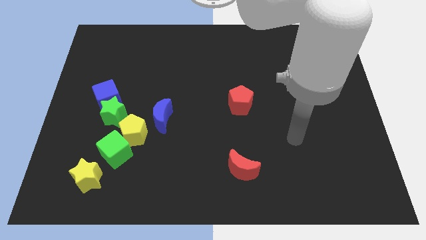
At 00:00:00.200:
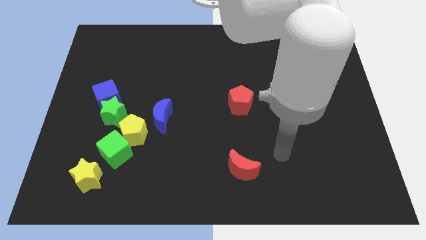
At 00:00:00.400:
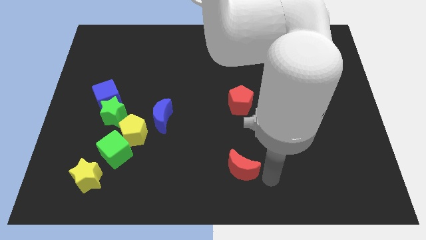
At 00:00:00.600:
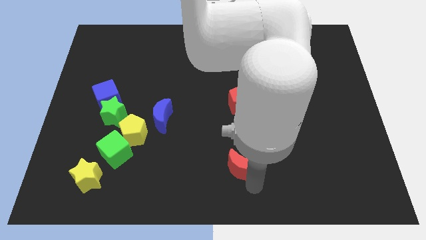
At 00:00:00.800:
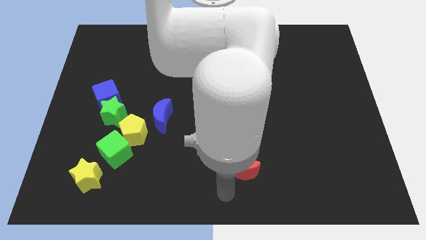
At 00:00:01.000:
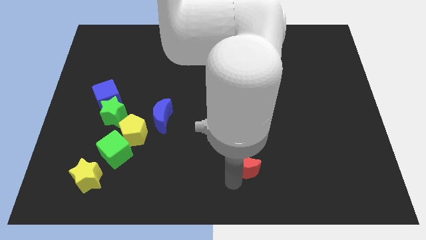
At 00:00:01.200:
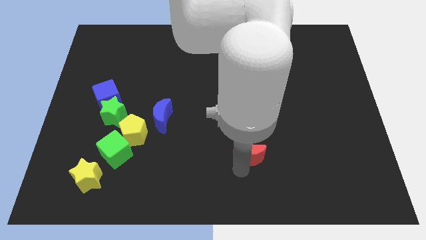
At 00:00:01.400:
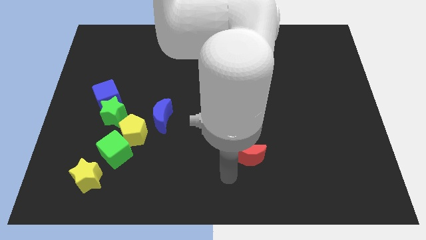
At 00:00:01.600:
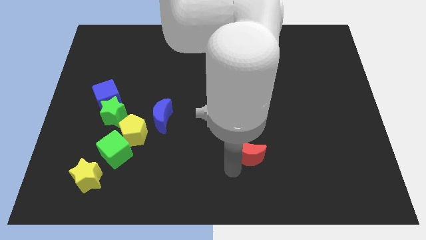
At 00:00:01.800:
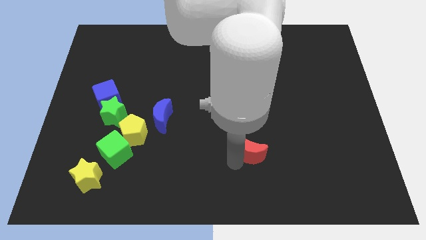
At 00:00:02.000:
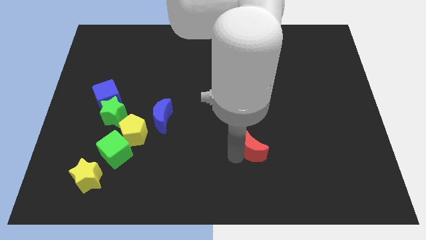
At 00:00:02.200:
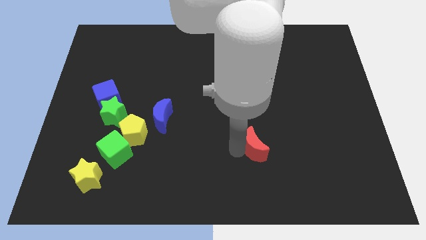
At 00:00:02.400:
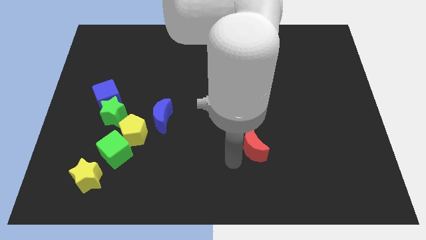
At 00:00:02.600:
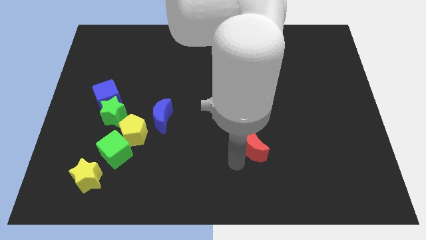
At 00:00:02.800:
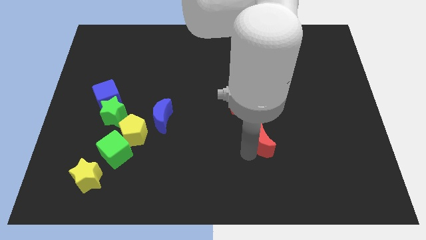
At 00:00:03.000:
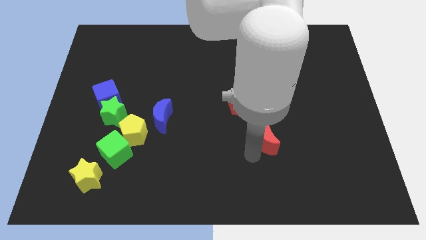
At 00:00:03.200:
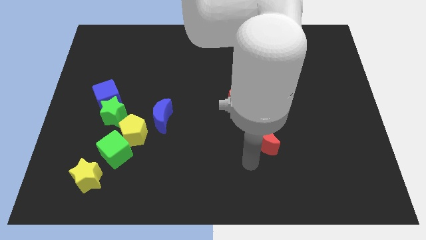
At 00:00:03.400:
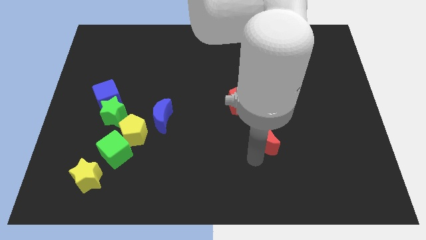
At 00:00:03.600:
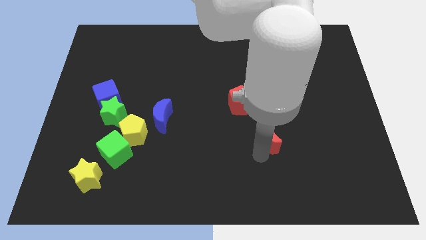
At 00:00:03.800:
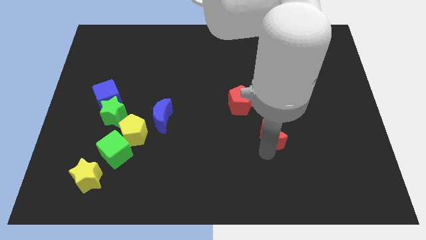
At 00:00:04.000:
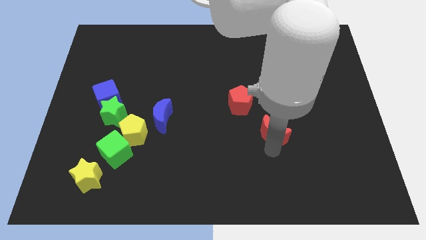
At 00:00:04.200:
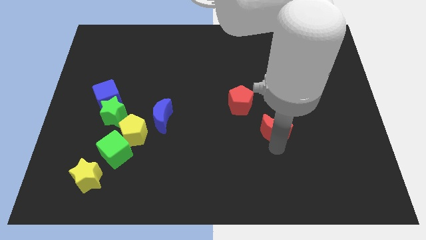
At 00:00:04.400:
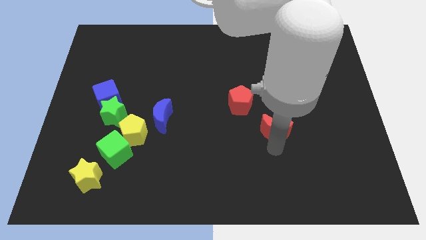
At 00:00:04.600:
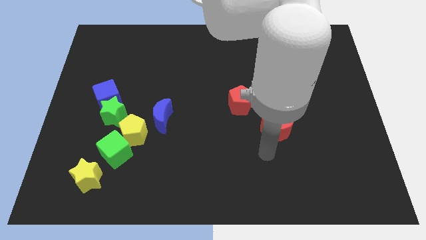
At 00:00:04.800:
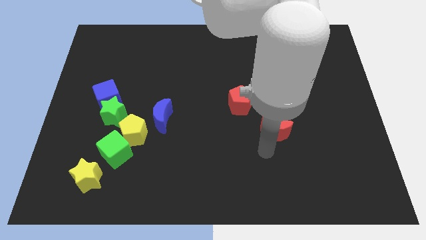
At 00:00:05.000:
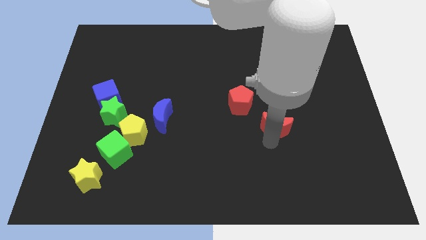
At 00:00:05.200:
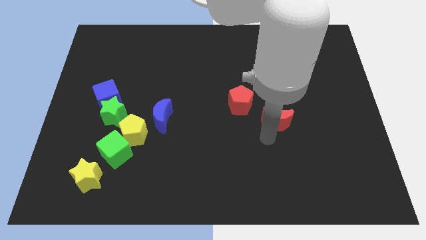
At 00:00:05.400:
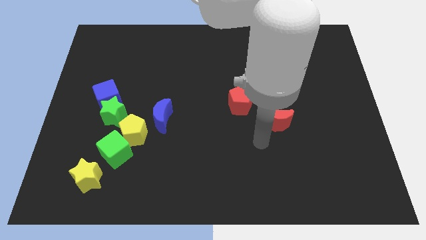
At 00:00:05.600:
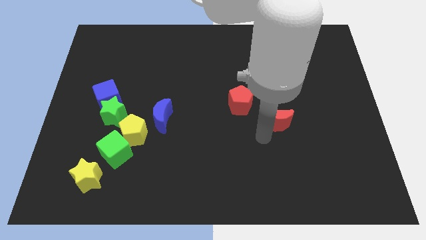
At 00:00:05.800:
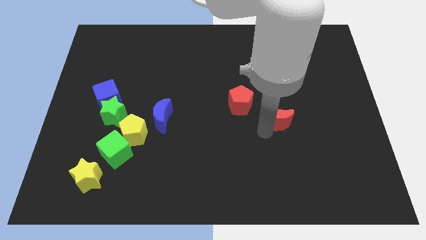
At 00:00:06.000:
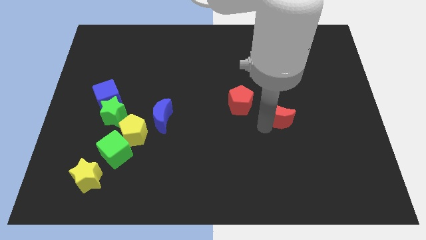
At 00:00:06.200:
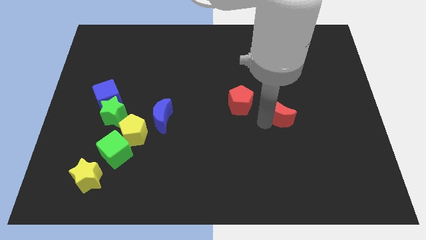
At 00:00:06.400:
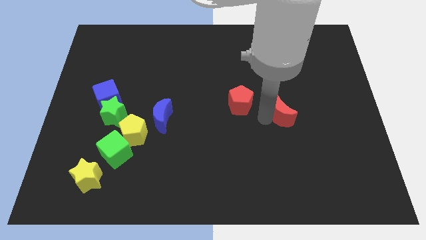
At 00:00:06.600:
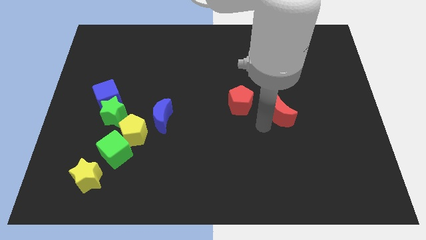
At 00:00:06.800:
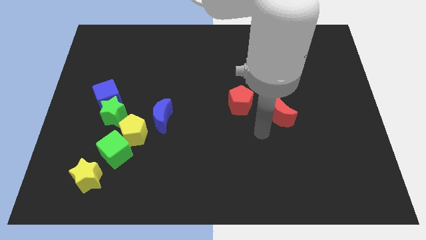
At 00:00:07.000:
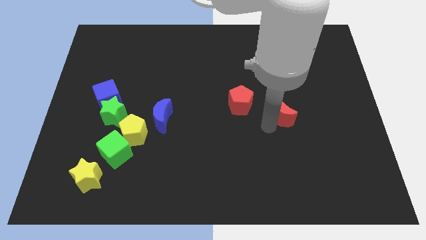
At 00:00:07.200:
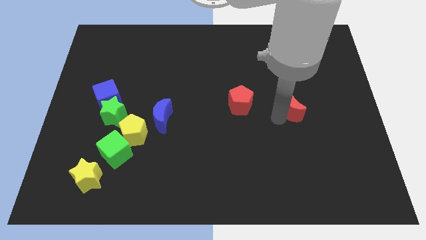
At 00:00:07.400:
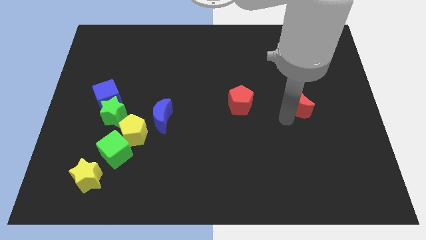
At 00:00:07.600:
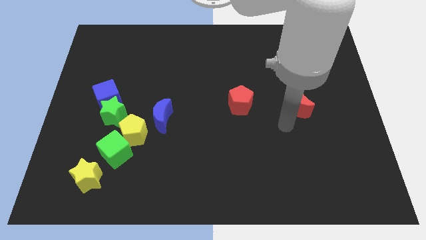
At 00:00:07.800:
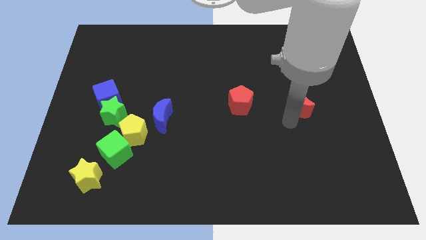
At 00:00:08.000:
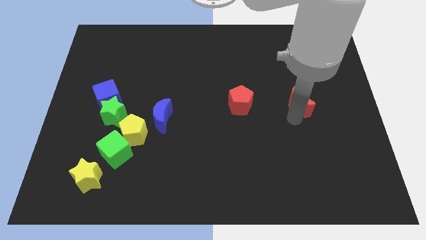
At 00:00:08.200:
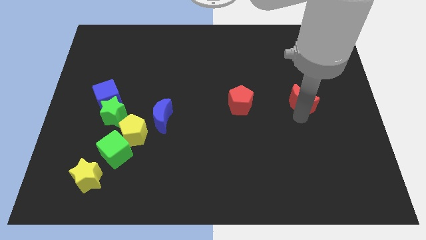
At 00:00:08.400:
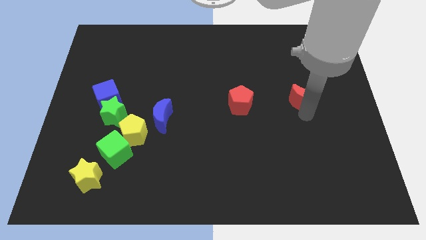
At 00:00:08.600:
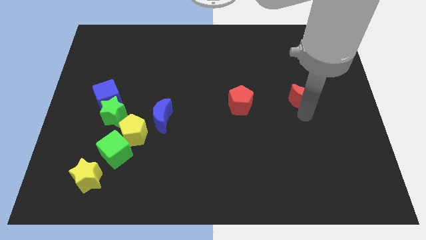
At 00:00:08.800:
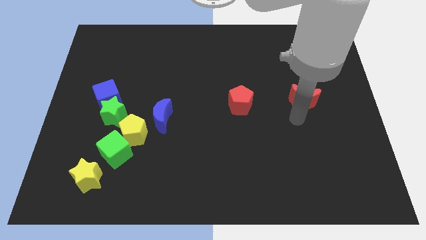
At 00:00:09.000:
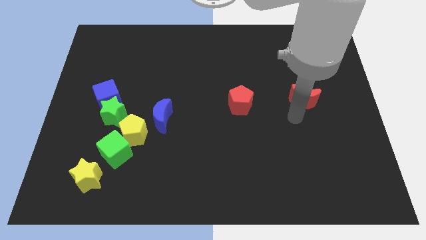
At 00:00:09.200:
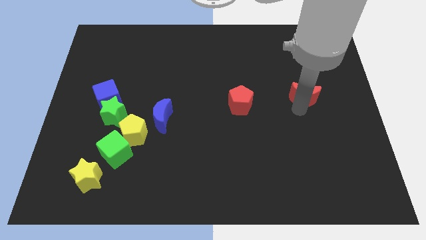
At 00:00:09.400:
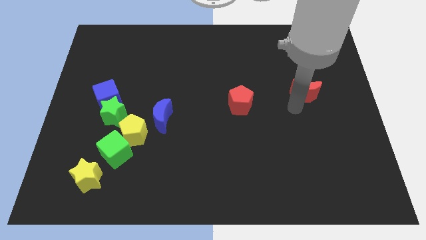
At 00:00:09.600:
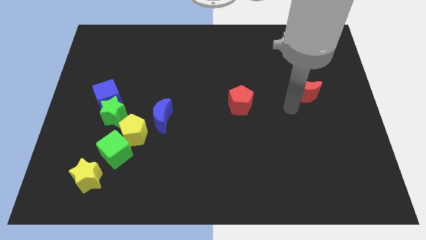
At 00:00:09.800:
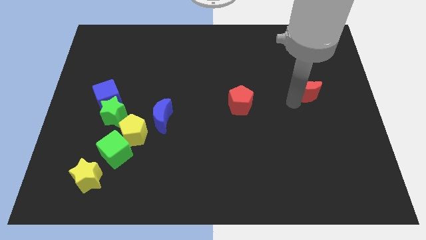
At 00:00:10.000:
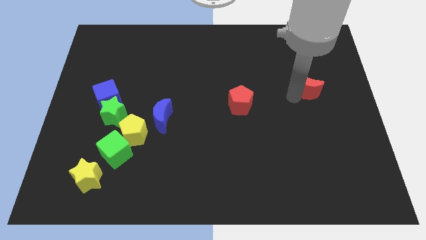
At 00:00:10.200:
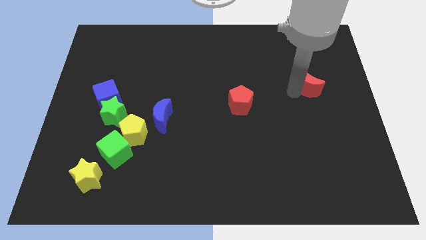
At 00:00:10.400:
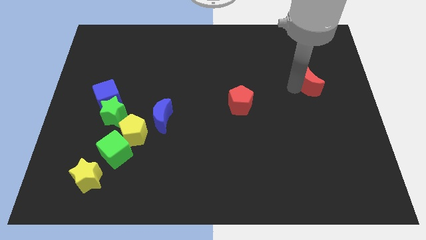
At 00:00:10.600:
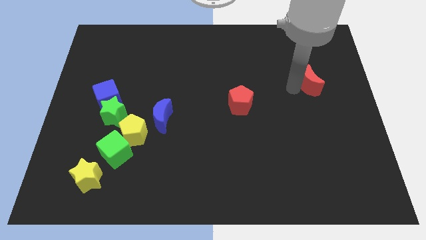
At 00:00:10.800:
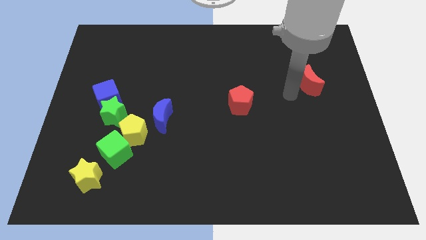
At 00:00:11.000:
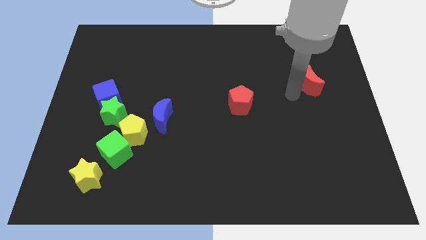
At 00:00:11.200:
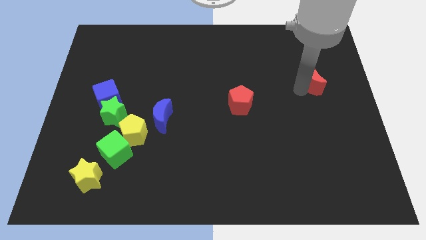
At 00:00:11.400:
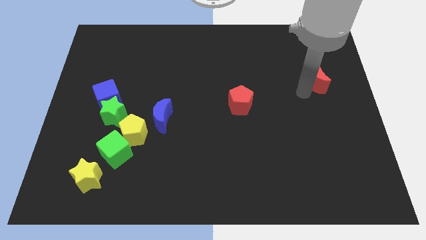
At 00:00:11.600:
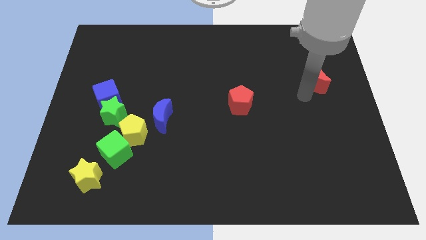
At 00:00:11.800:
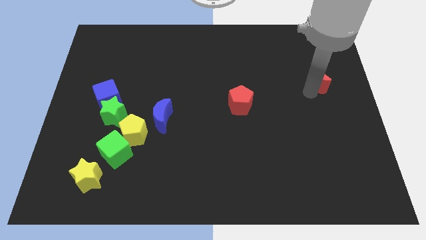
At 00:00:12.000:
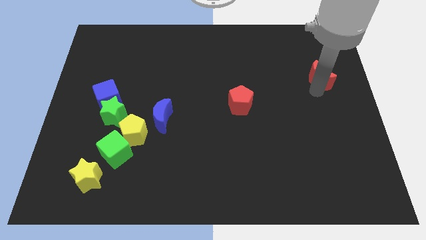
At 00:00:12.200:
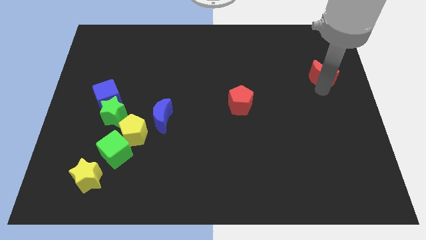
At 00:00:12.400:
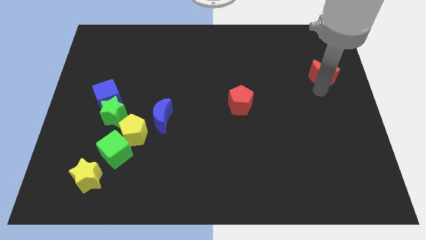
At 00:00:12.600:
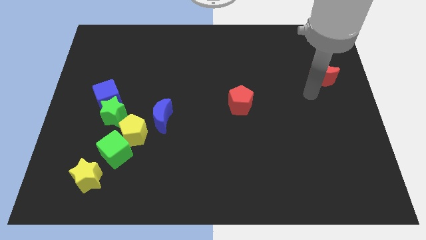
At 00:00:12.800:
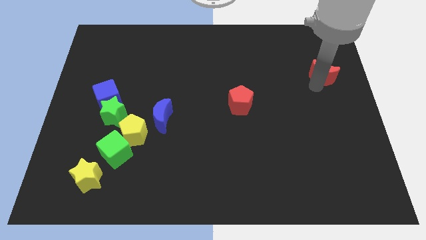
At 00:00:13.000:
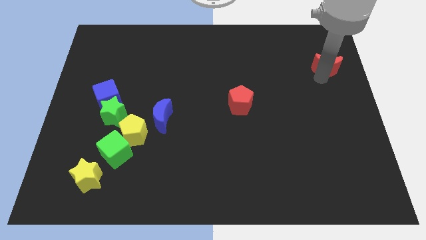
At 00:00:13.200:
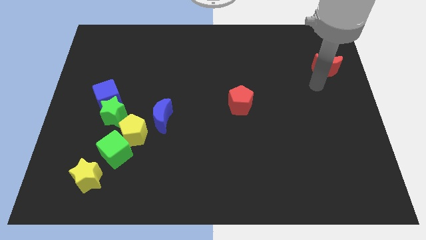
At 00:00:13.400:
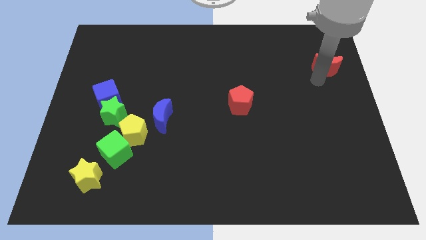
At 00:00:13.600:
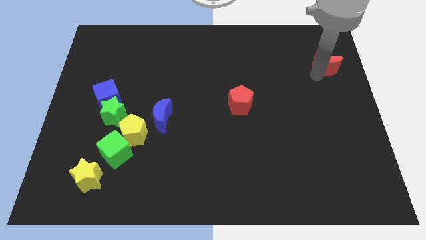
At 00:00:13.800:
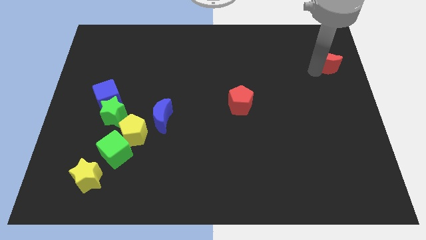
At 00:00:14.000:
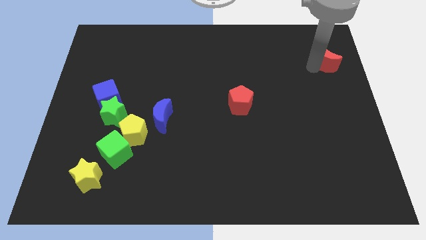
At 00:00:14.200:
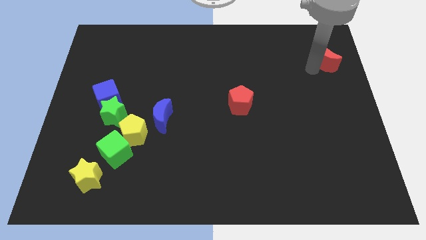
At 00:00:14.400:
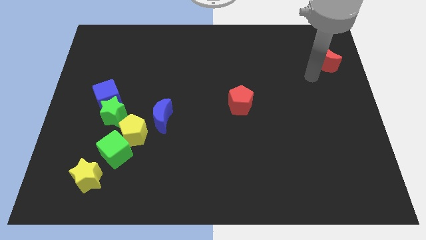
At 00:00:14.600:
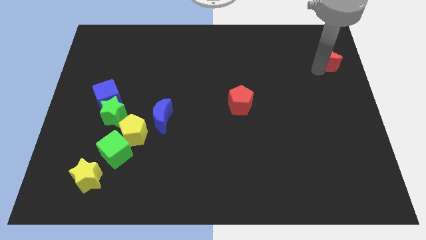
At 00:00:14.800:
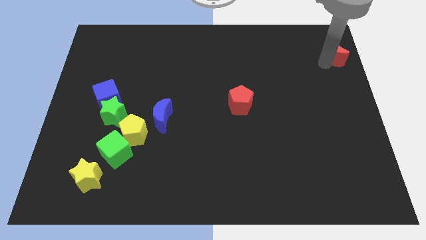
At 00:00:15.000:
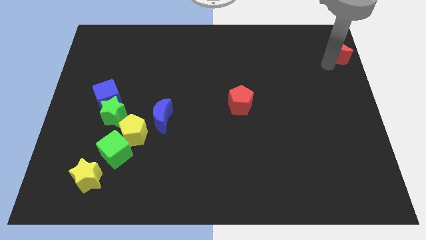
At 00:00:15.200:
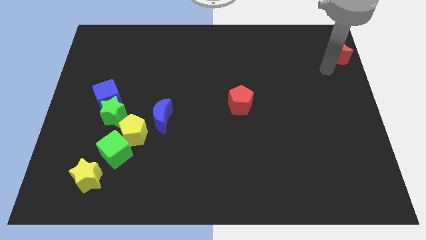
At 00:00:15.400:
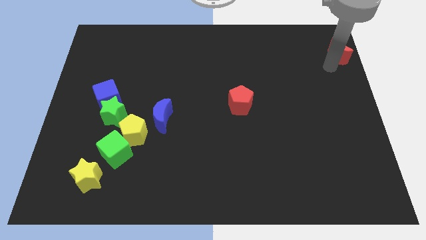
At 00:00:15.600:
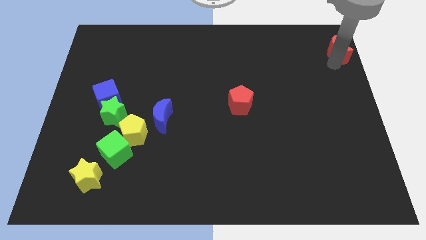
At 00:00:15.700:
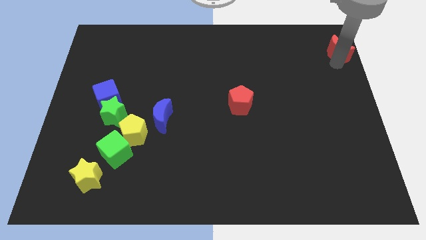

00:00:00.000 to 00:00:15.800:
slide the red moon to the top right corner
